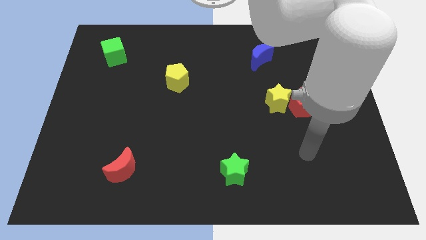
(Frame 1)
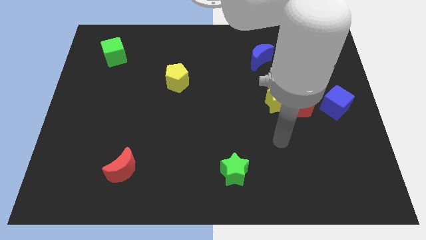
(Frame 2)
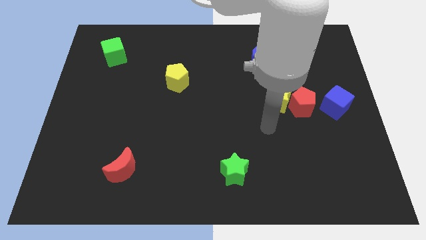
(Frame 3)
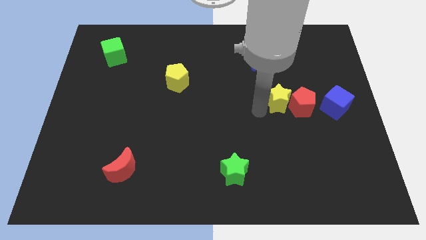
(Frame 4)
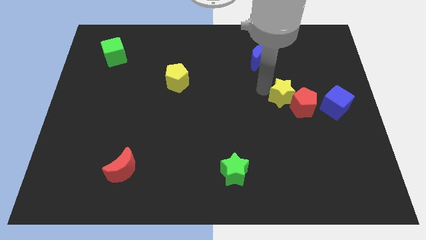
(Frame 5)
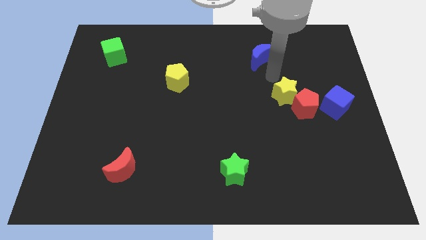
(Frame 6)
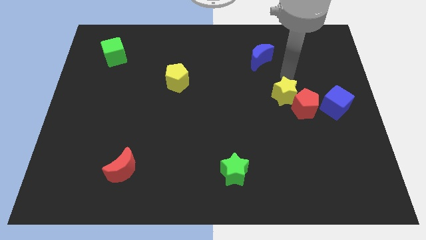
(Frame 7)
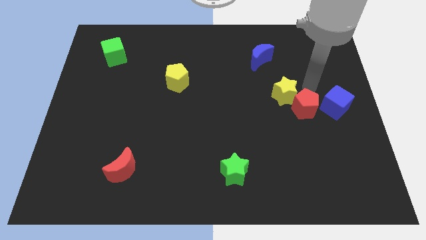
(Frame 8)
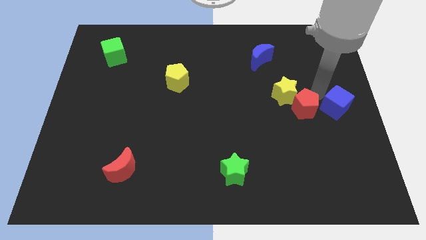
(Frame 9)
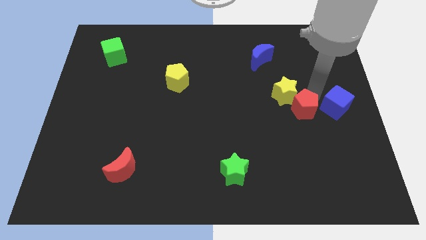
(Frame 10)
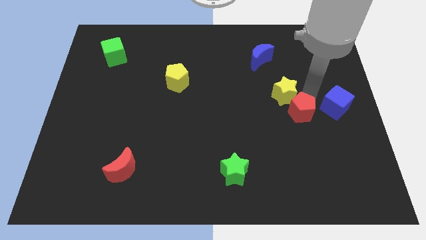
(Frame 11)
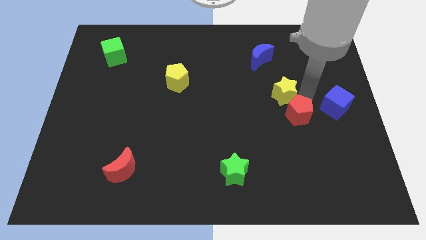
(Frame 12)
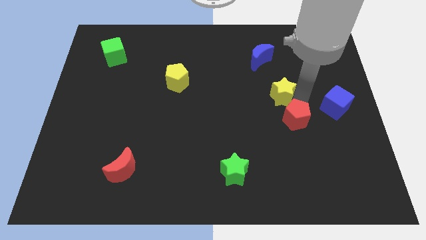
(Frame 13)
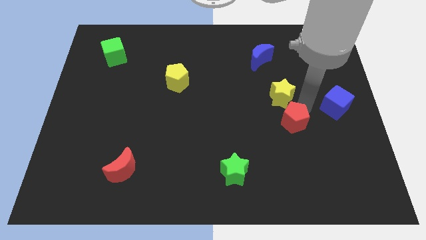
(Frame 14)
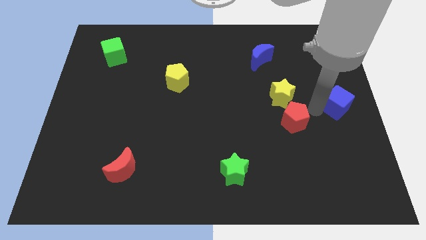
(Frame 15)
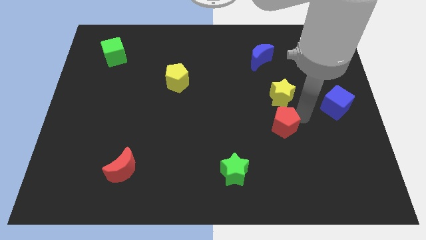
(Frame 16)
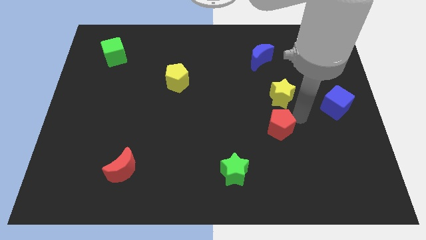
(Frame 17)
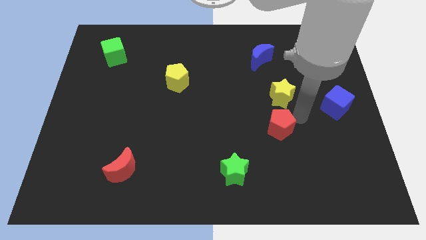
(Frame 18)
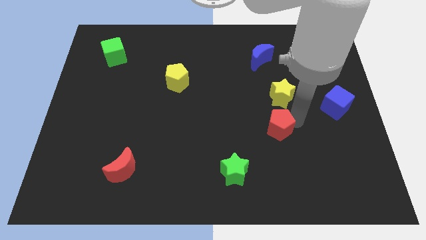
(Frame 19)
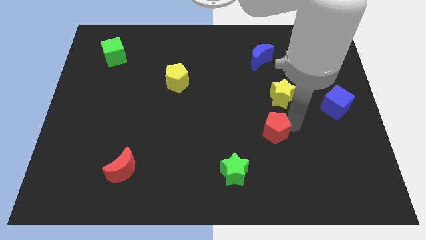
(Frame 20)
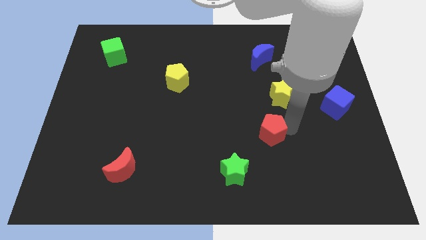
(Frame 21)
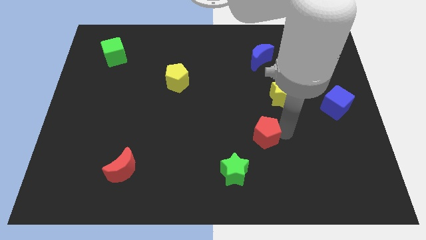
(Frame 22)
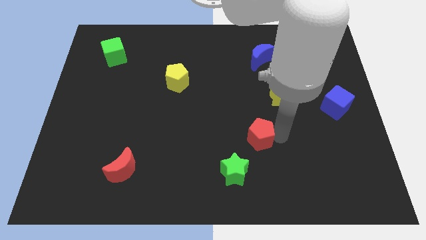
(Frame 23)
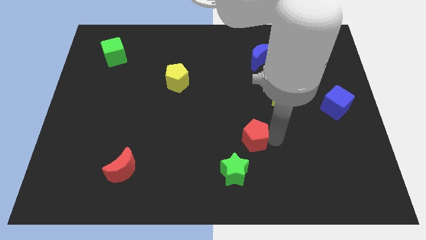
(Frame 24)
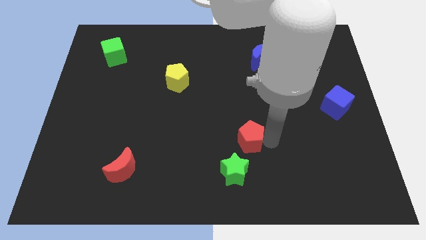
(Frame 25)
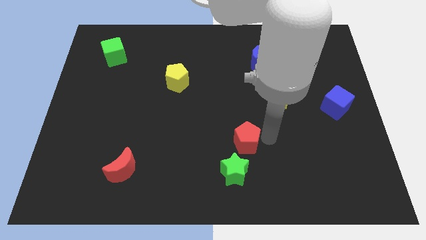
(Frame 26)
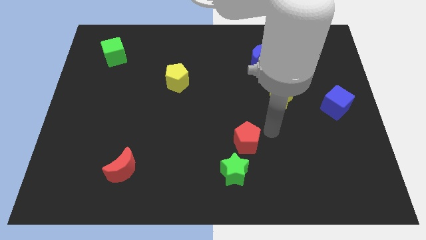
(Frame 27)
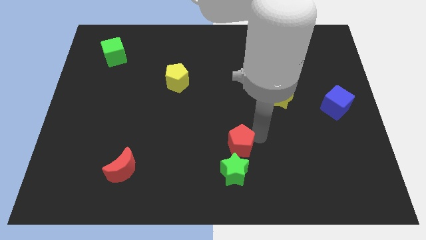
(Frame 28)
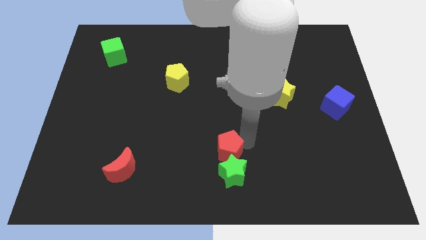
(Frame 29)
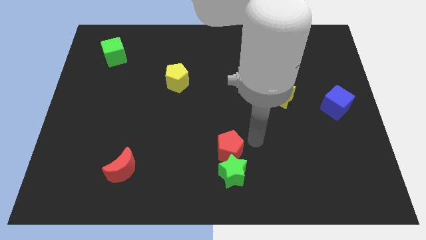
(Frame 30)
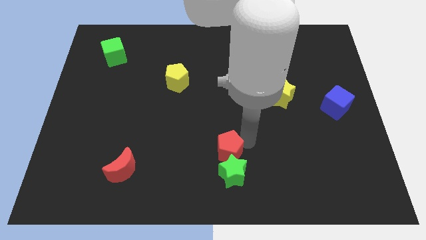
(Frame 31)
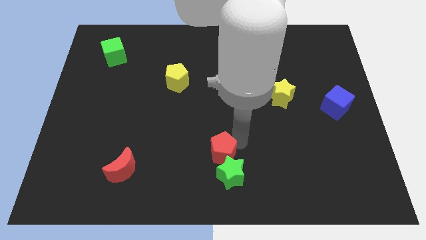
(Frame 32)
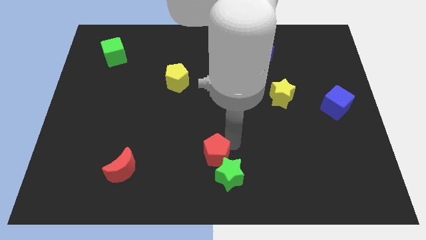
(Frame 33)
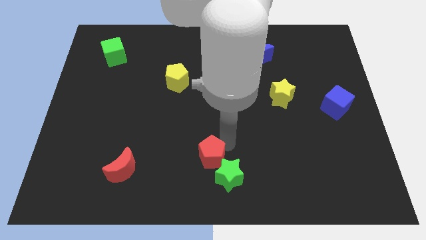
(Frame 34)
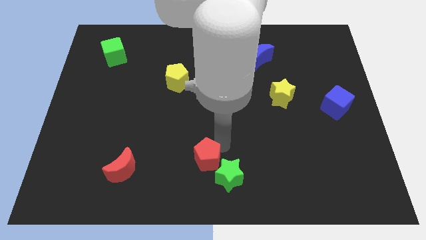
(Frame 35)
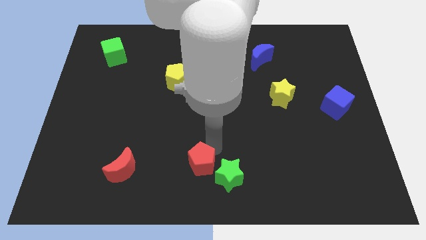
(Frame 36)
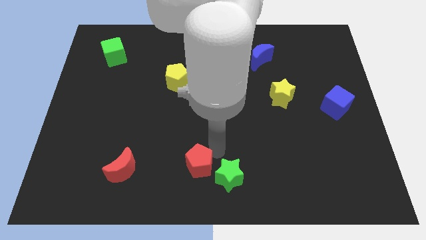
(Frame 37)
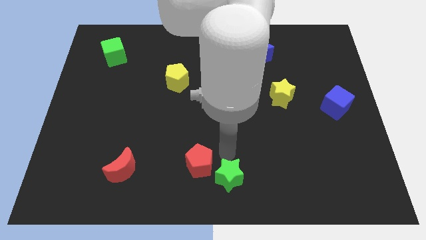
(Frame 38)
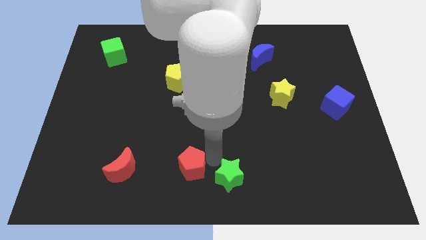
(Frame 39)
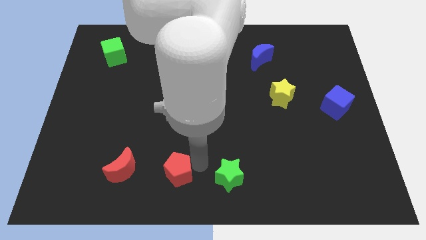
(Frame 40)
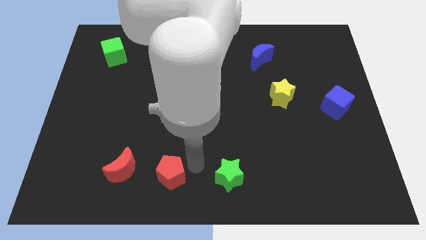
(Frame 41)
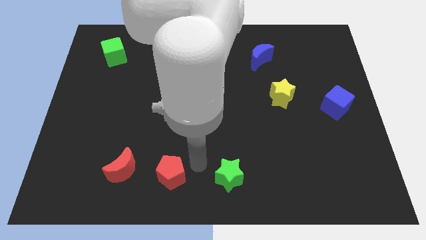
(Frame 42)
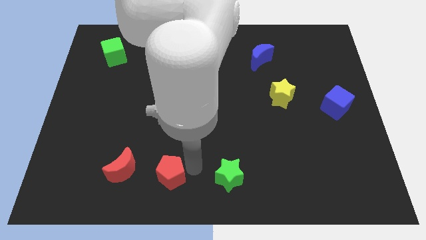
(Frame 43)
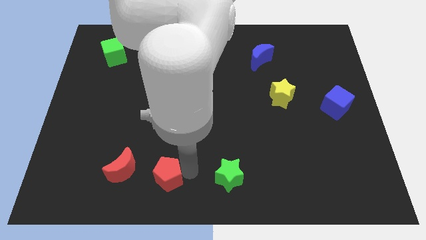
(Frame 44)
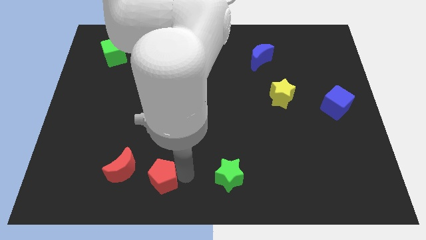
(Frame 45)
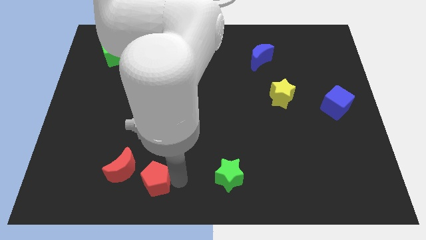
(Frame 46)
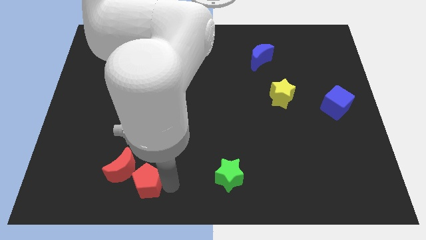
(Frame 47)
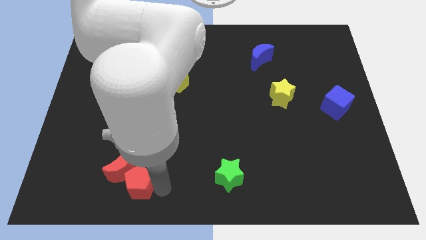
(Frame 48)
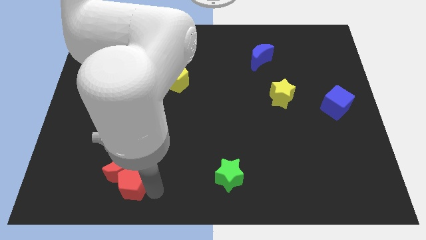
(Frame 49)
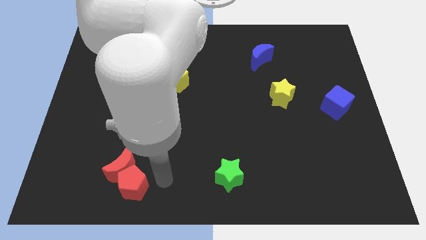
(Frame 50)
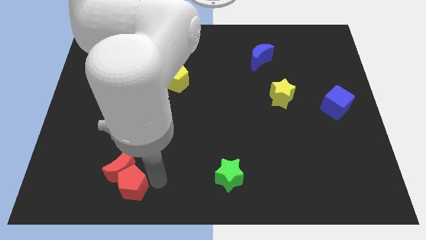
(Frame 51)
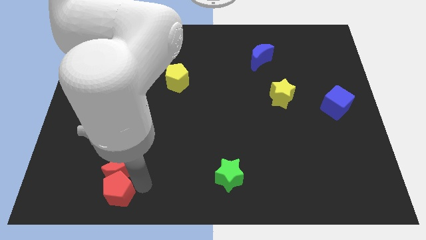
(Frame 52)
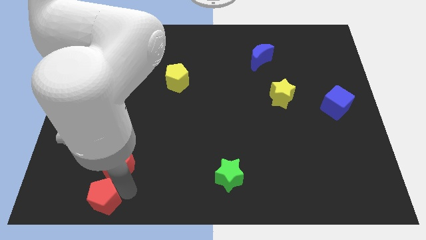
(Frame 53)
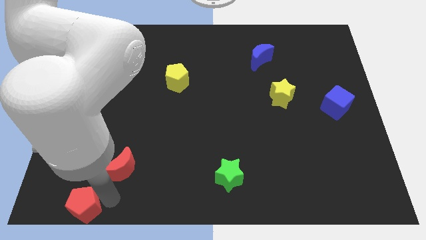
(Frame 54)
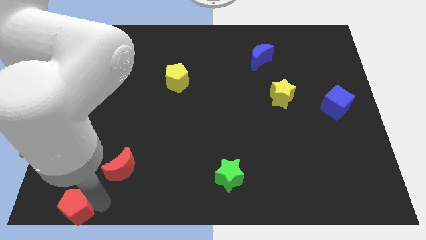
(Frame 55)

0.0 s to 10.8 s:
slide the red pentagon to the bottom left

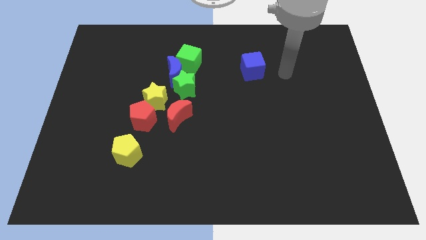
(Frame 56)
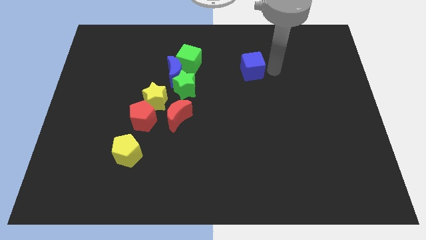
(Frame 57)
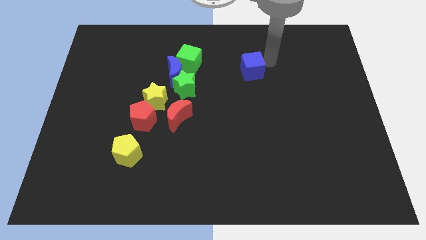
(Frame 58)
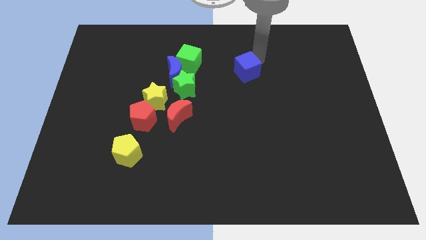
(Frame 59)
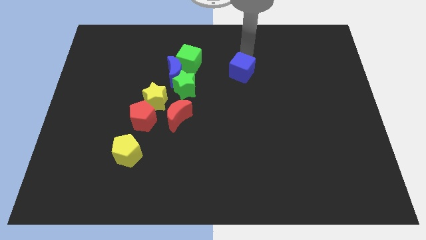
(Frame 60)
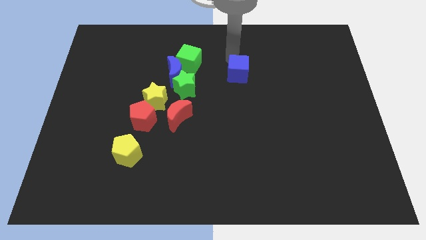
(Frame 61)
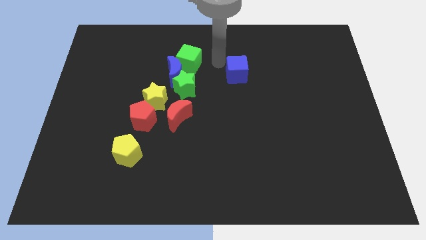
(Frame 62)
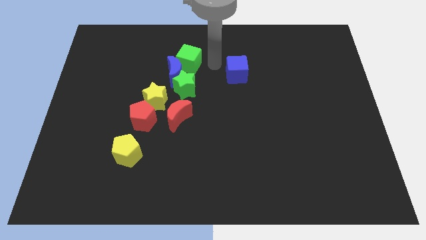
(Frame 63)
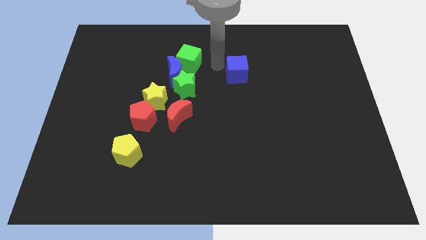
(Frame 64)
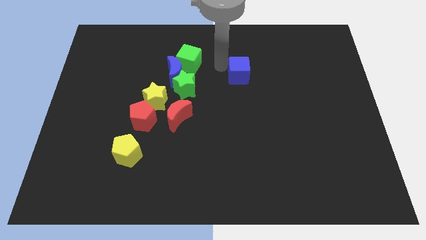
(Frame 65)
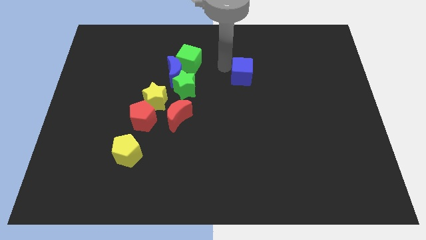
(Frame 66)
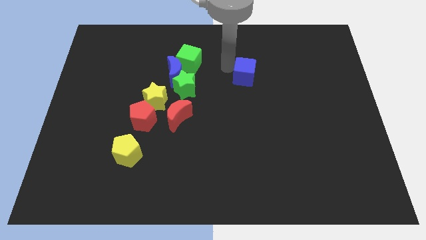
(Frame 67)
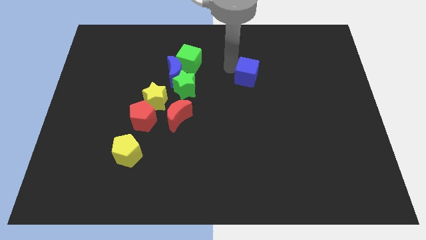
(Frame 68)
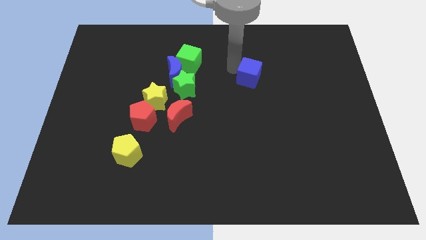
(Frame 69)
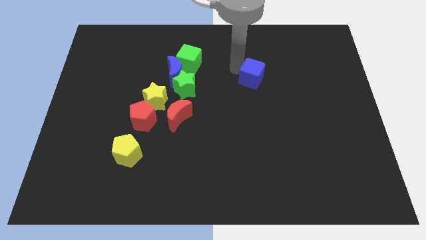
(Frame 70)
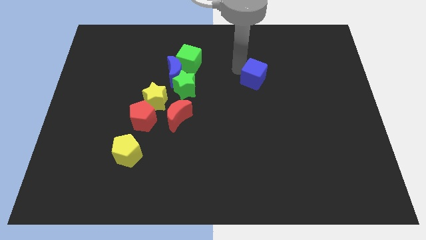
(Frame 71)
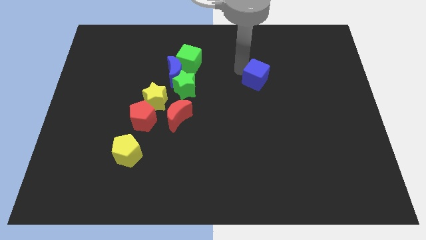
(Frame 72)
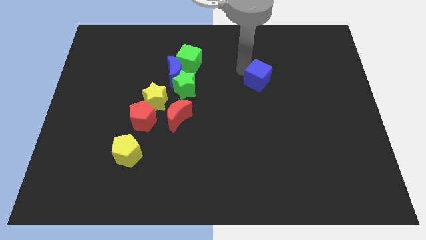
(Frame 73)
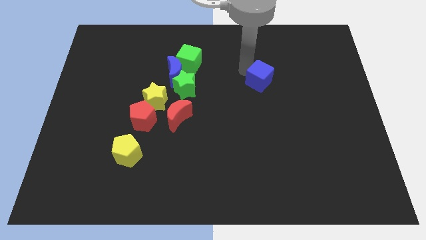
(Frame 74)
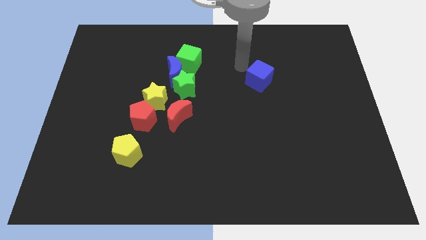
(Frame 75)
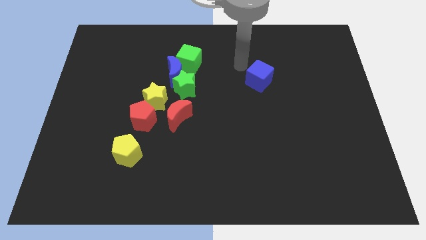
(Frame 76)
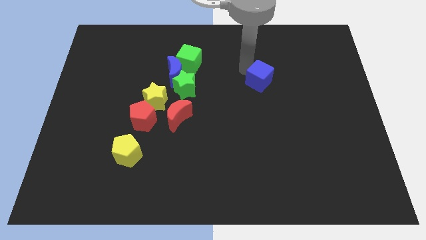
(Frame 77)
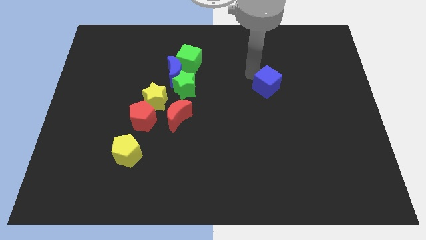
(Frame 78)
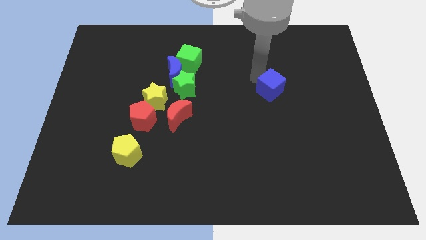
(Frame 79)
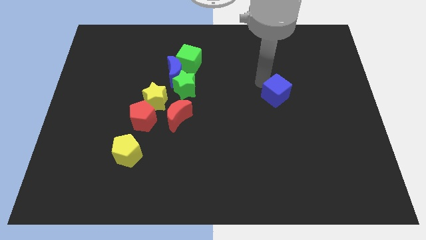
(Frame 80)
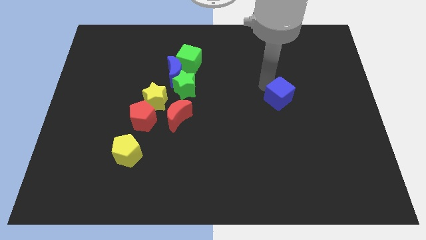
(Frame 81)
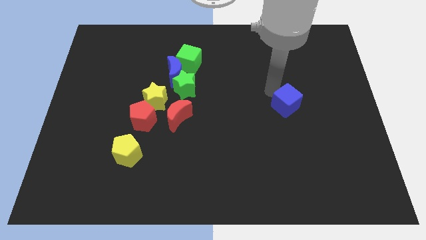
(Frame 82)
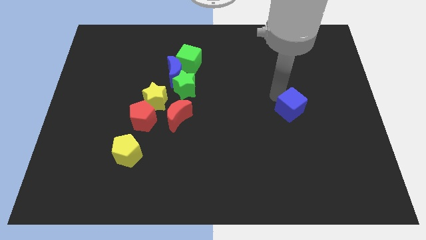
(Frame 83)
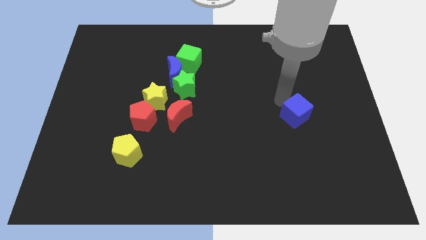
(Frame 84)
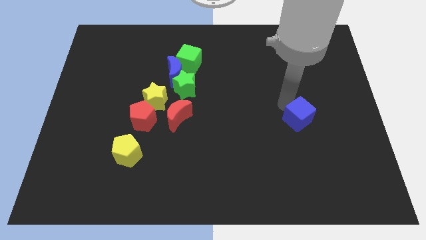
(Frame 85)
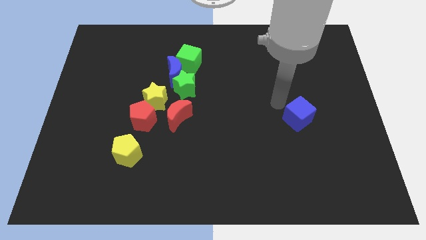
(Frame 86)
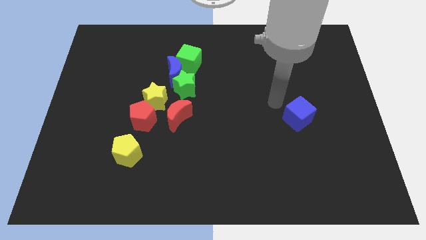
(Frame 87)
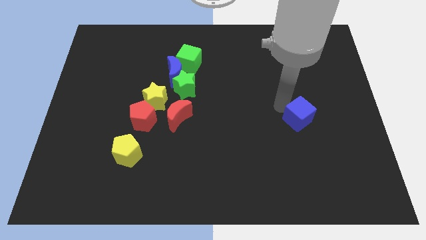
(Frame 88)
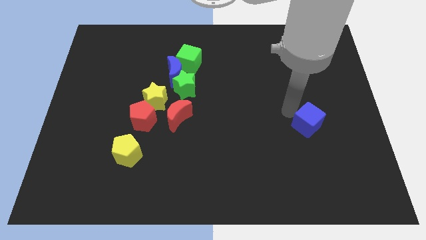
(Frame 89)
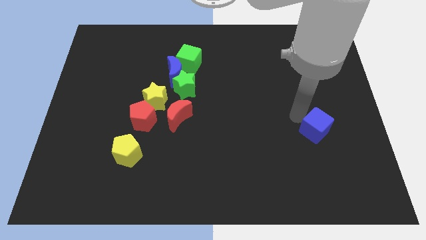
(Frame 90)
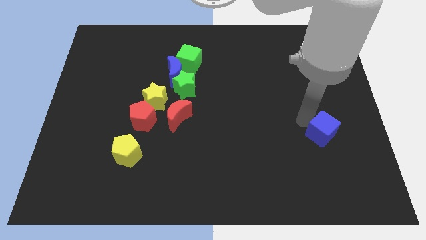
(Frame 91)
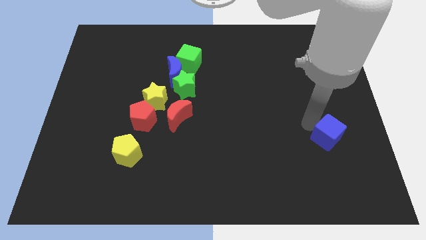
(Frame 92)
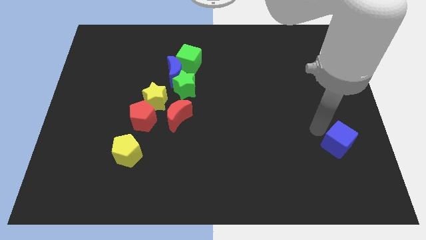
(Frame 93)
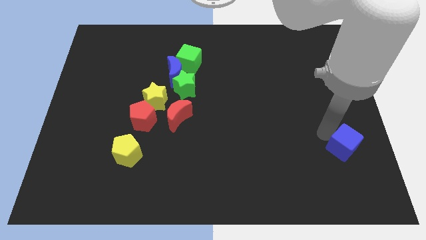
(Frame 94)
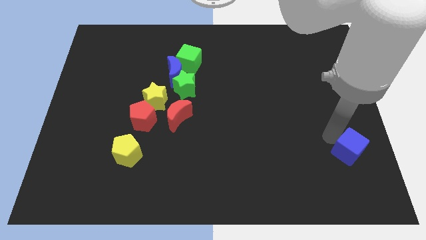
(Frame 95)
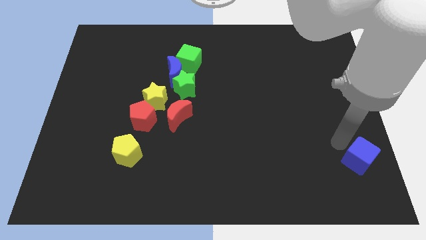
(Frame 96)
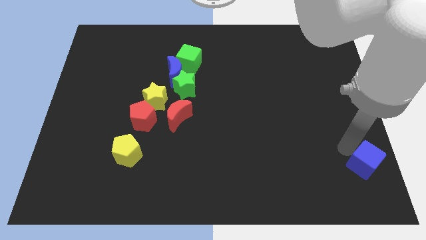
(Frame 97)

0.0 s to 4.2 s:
put the blue cube to the bottom right
